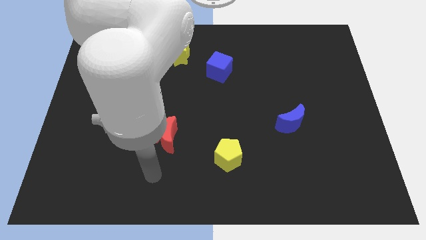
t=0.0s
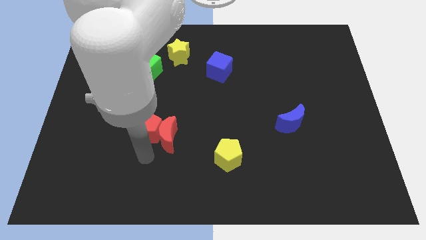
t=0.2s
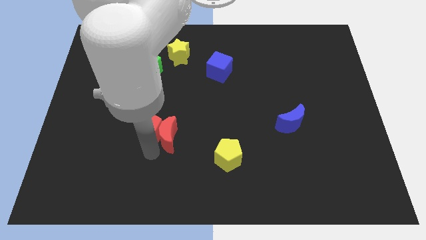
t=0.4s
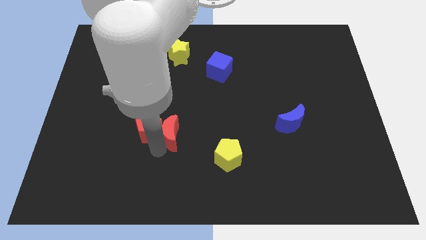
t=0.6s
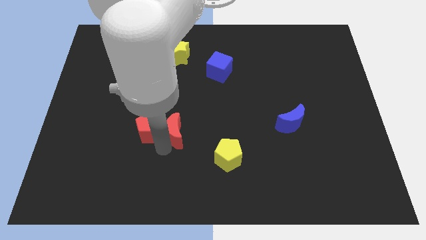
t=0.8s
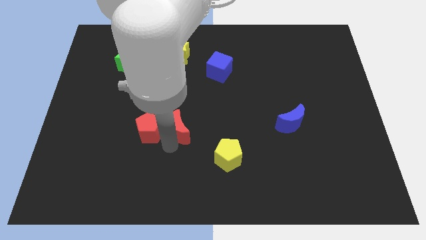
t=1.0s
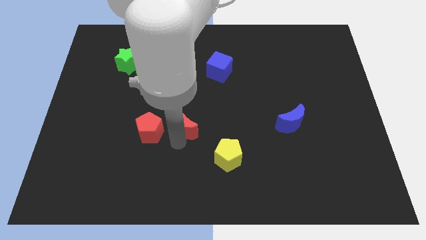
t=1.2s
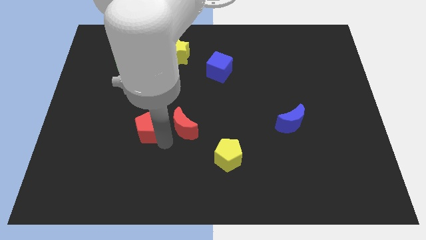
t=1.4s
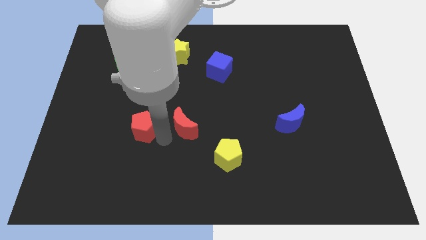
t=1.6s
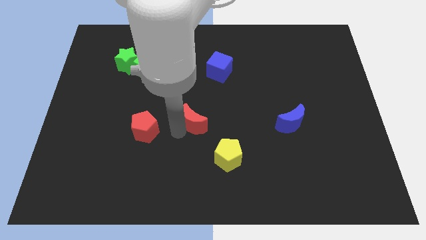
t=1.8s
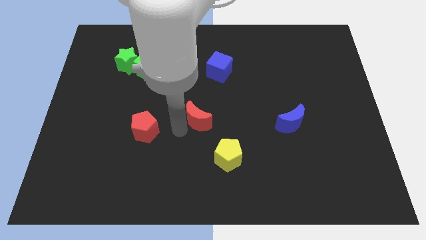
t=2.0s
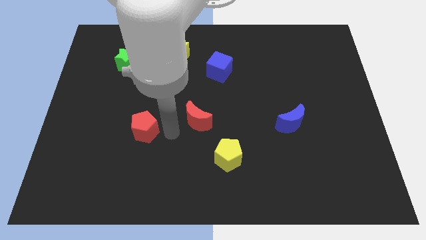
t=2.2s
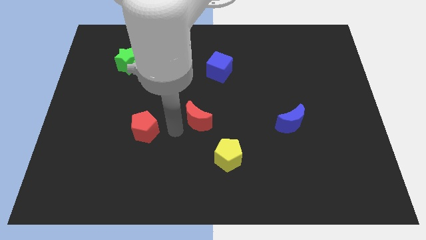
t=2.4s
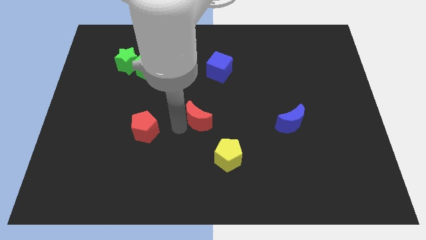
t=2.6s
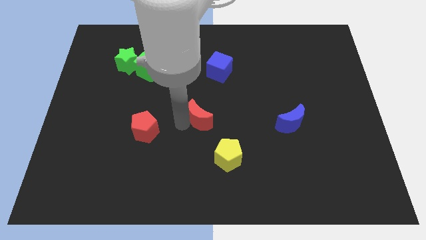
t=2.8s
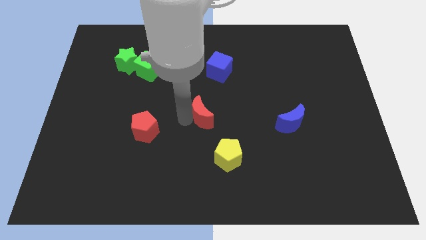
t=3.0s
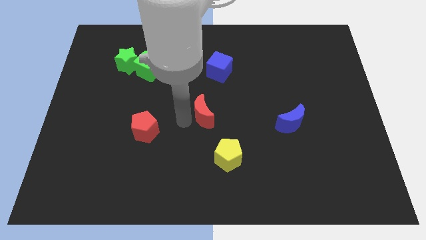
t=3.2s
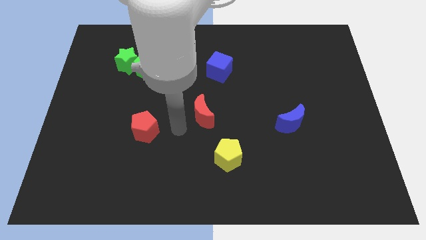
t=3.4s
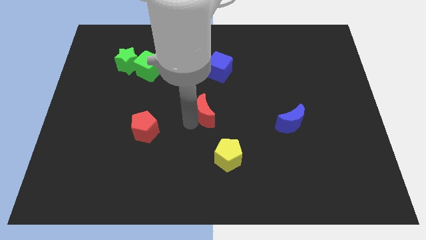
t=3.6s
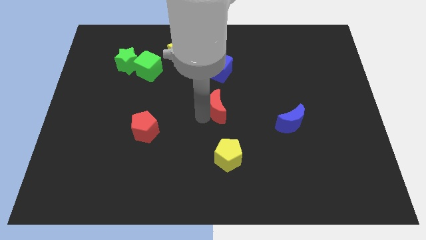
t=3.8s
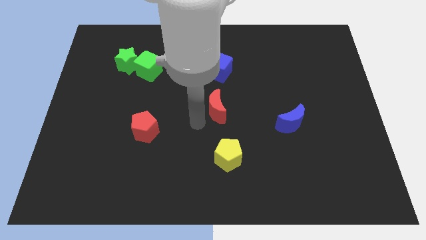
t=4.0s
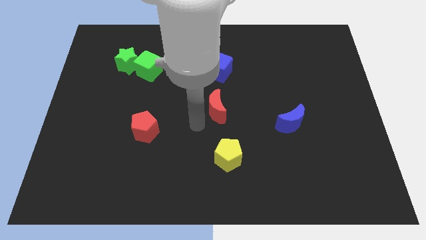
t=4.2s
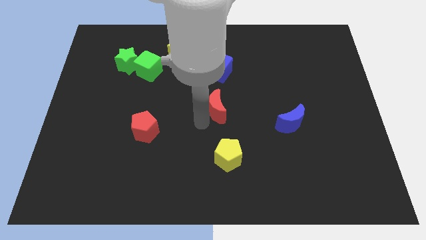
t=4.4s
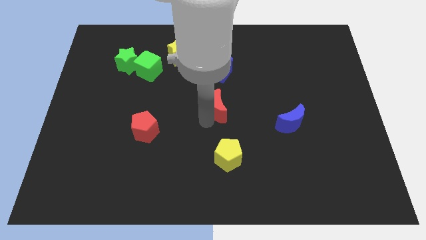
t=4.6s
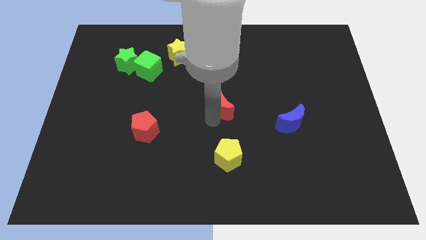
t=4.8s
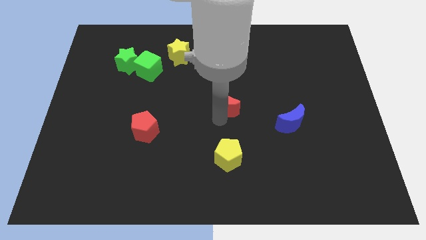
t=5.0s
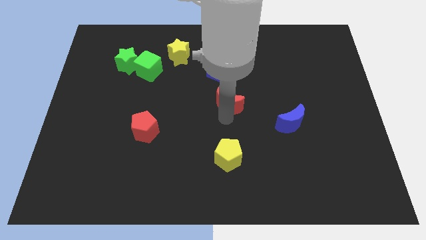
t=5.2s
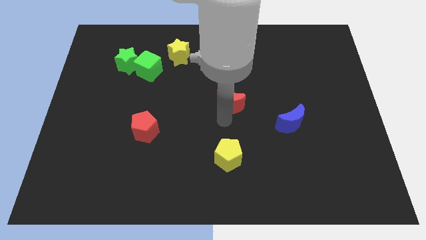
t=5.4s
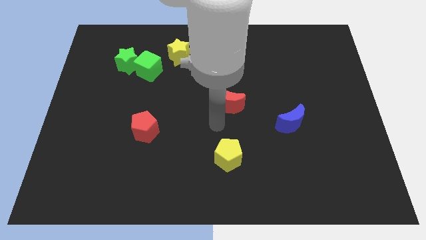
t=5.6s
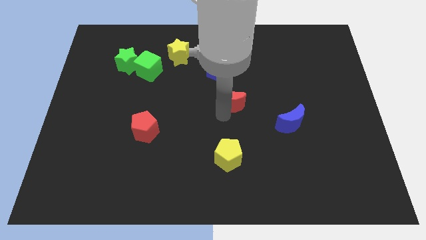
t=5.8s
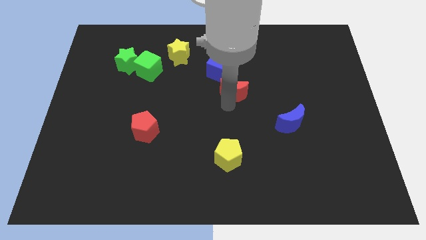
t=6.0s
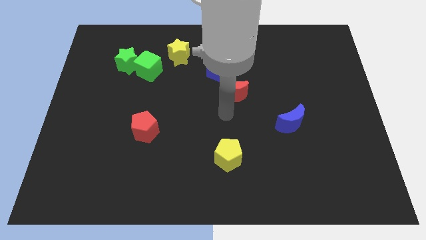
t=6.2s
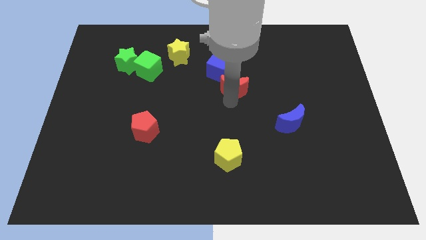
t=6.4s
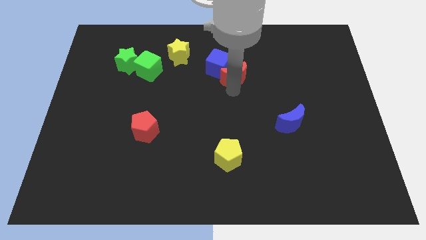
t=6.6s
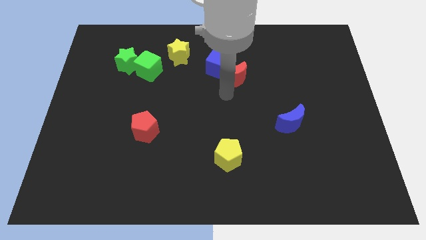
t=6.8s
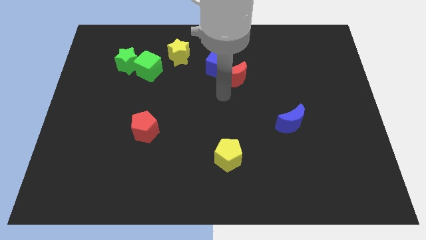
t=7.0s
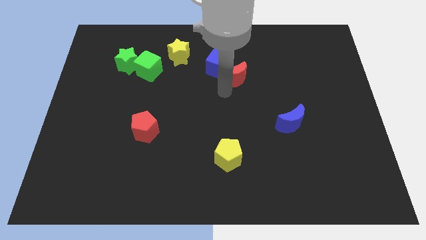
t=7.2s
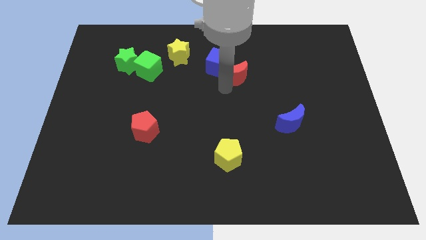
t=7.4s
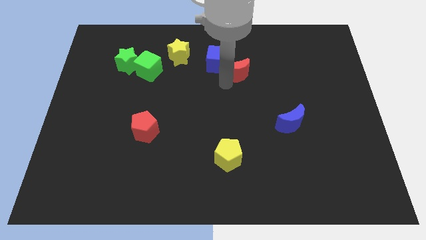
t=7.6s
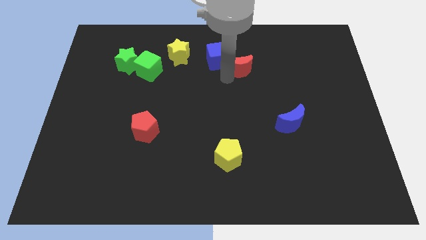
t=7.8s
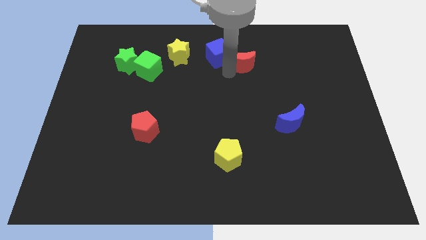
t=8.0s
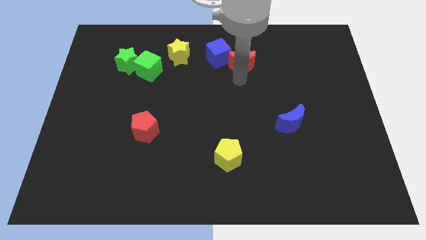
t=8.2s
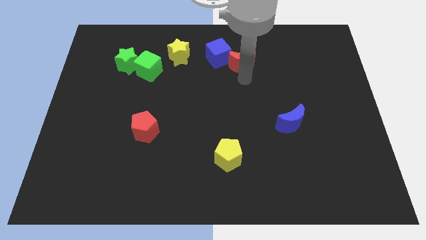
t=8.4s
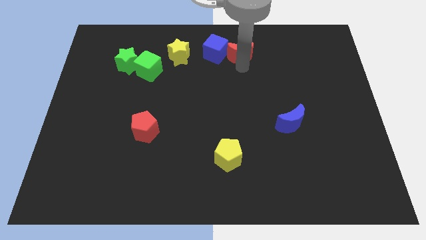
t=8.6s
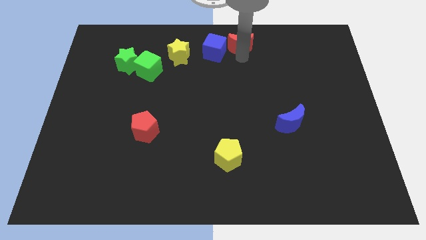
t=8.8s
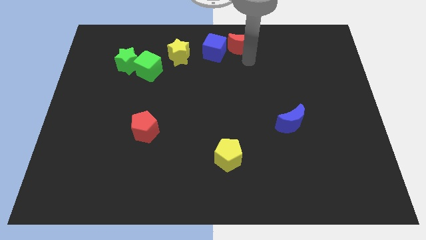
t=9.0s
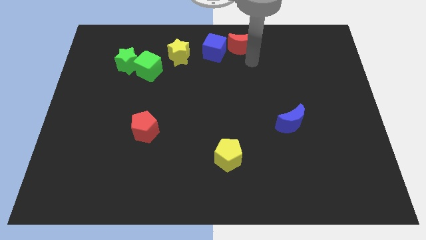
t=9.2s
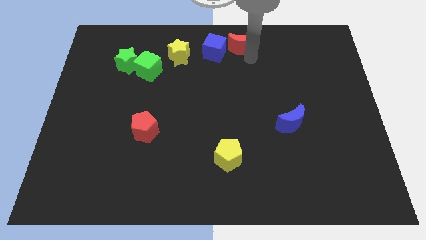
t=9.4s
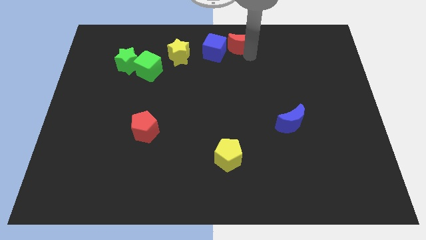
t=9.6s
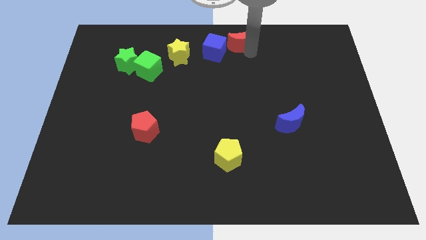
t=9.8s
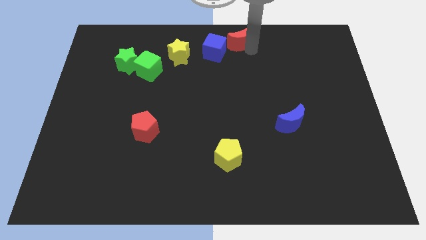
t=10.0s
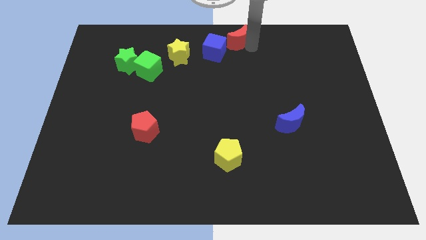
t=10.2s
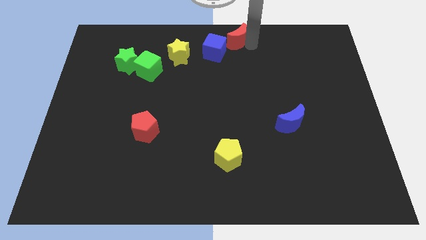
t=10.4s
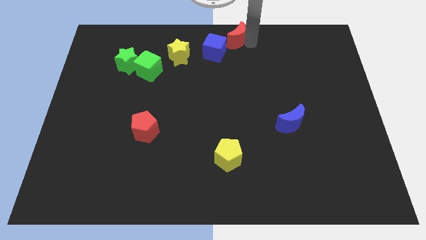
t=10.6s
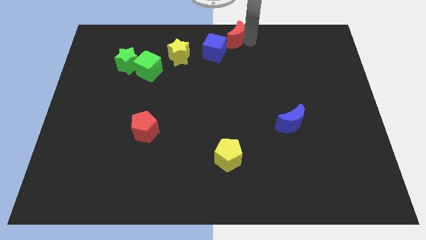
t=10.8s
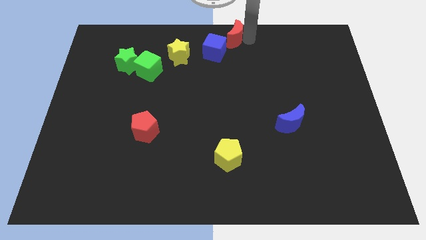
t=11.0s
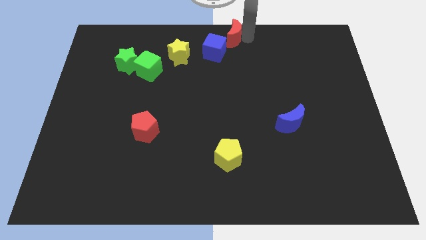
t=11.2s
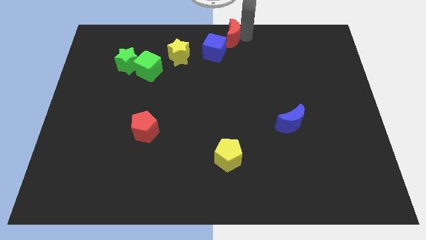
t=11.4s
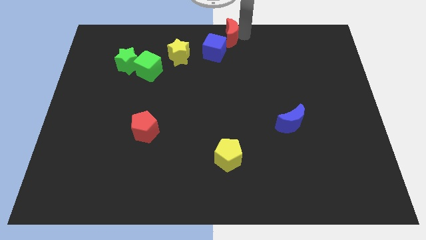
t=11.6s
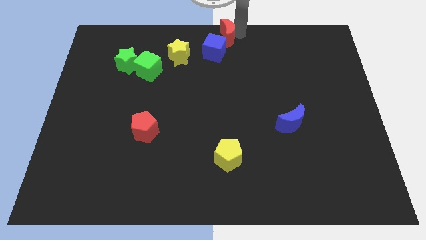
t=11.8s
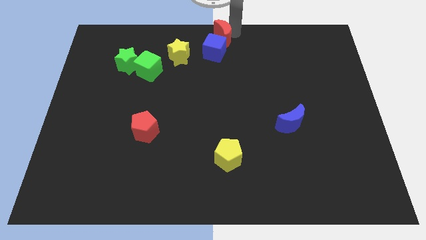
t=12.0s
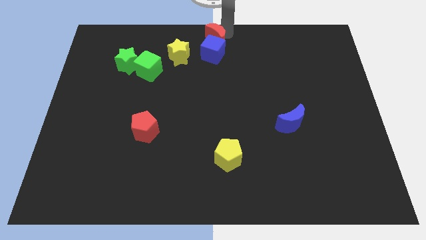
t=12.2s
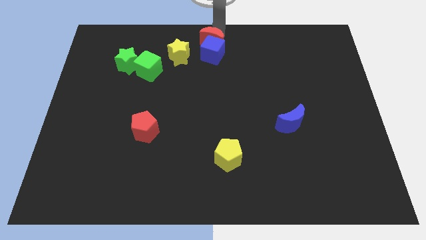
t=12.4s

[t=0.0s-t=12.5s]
push the red moon to the top right side of the blue cube

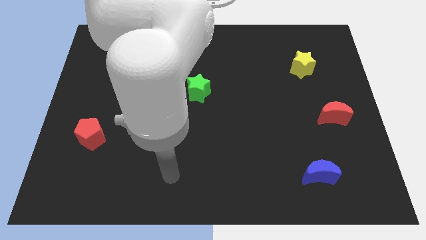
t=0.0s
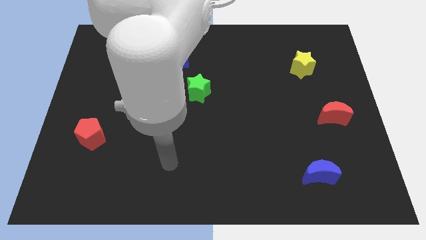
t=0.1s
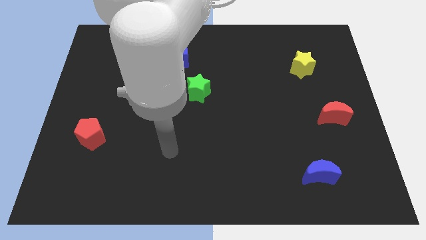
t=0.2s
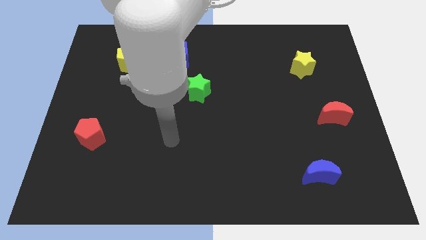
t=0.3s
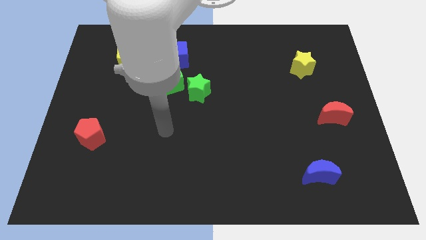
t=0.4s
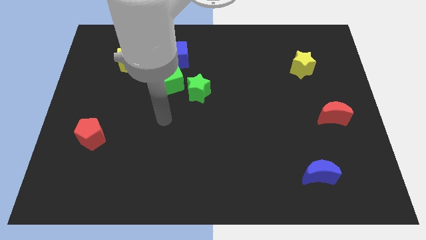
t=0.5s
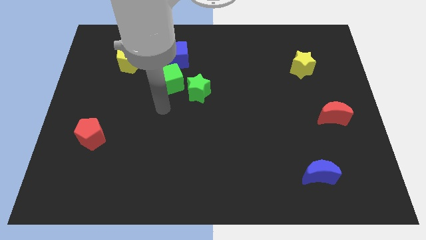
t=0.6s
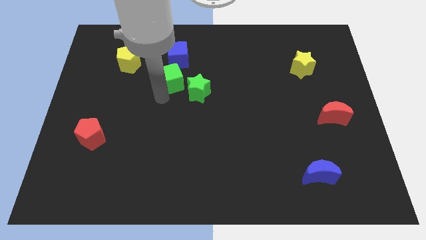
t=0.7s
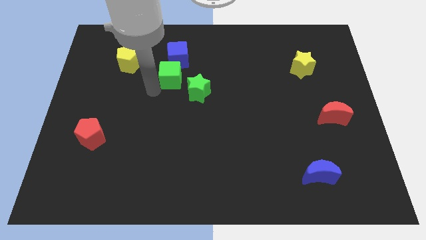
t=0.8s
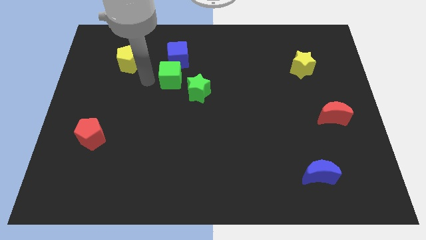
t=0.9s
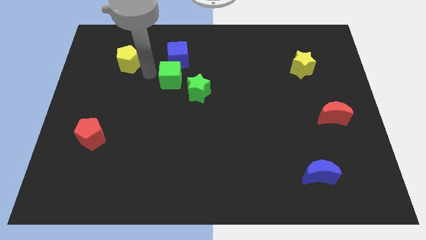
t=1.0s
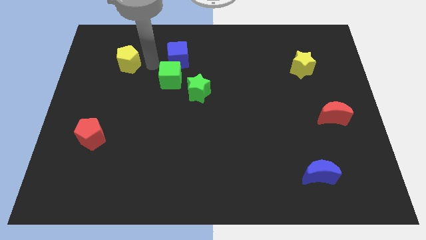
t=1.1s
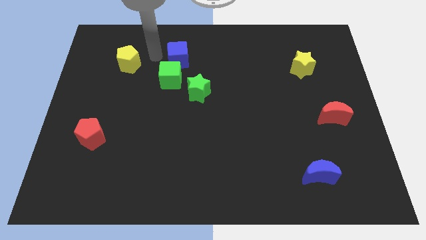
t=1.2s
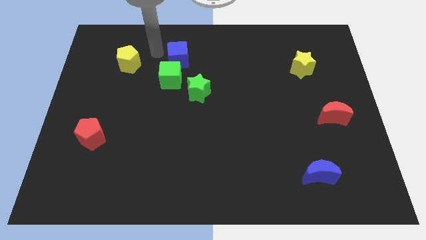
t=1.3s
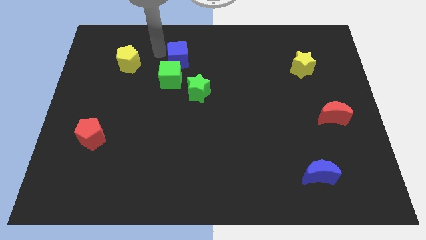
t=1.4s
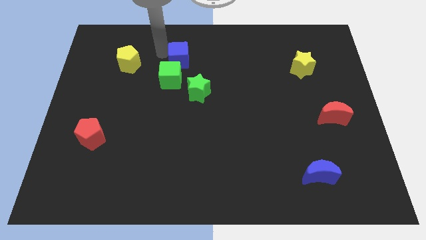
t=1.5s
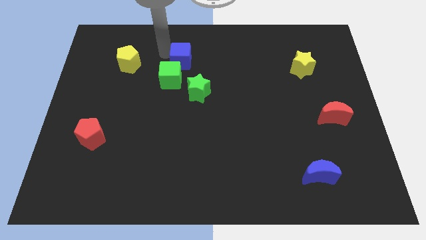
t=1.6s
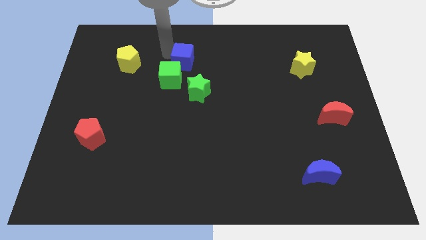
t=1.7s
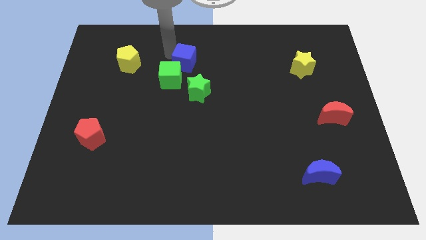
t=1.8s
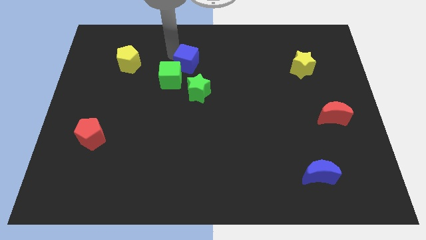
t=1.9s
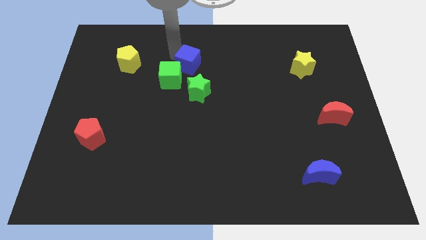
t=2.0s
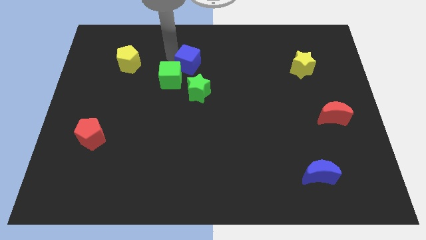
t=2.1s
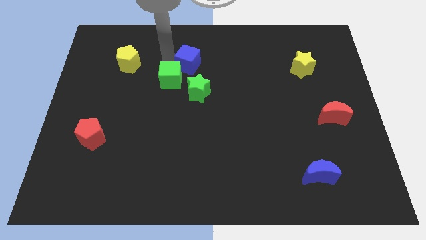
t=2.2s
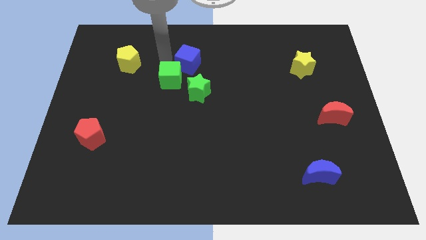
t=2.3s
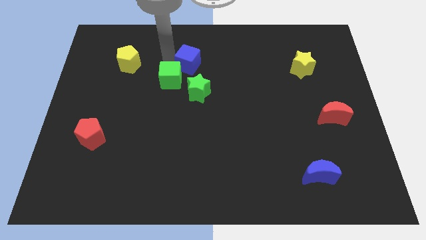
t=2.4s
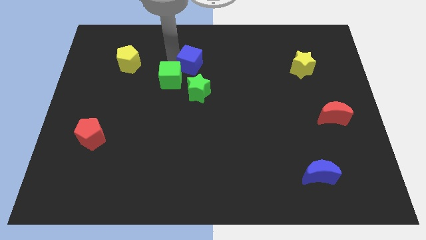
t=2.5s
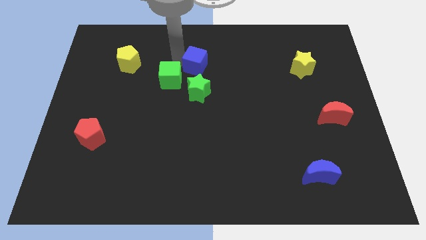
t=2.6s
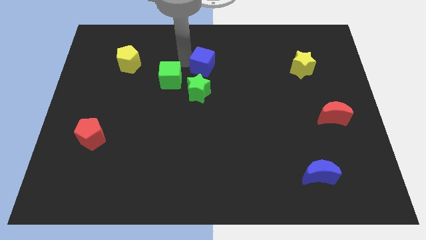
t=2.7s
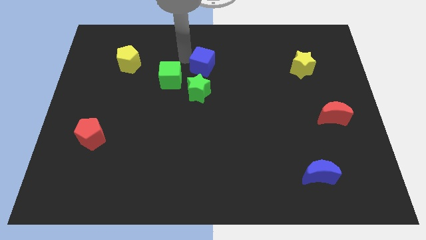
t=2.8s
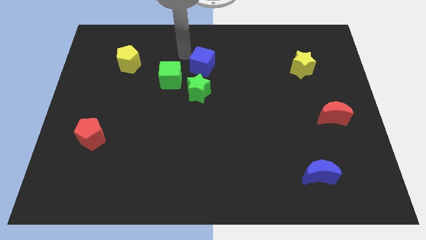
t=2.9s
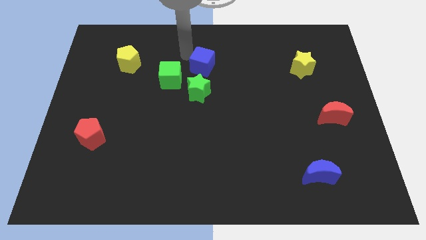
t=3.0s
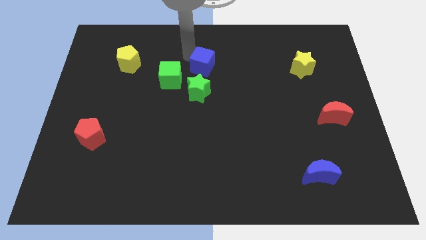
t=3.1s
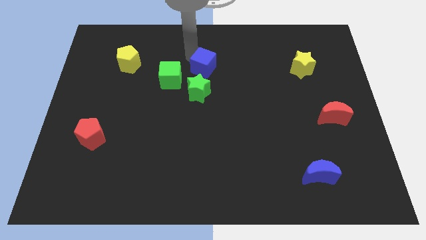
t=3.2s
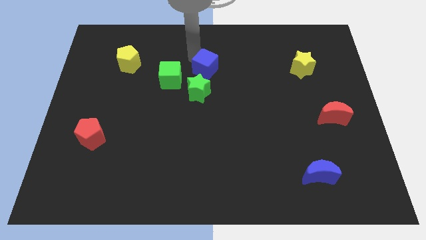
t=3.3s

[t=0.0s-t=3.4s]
put the blue cube diagonally up and to the right of the green star
